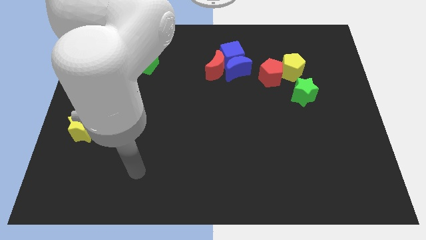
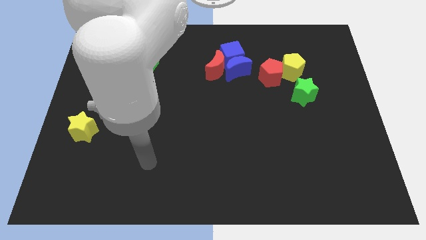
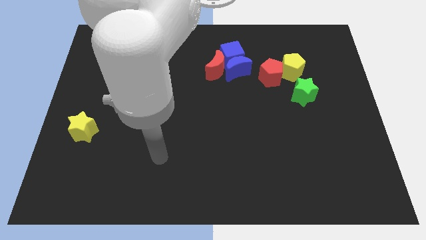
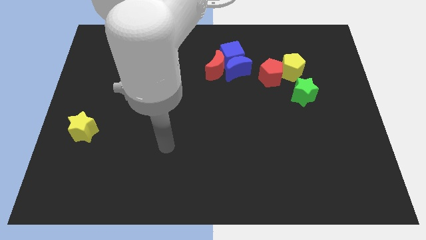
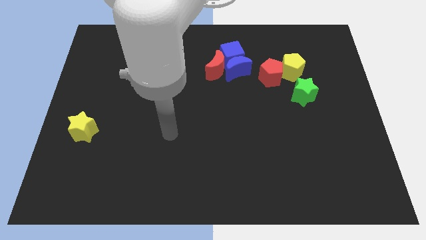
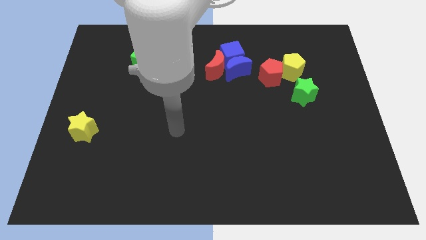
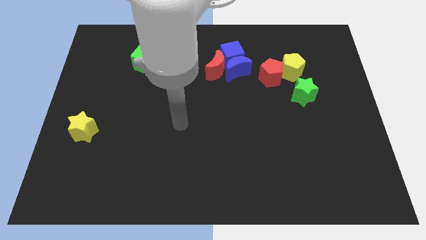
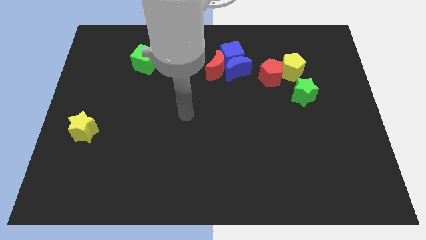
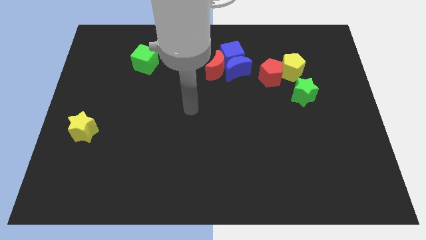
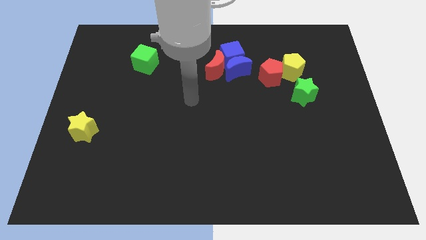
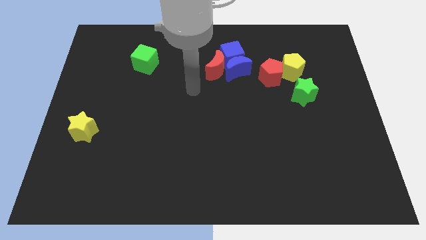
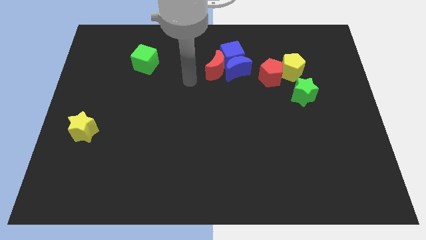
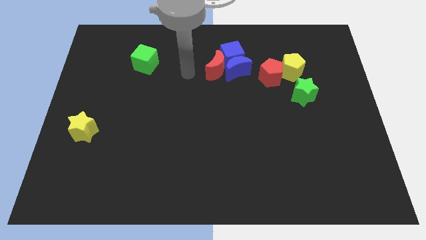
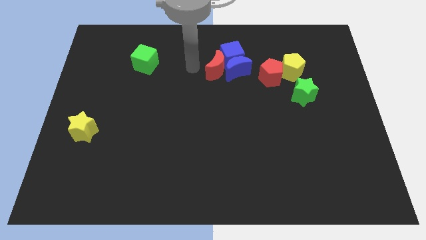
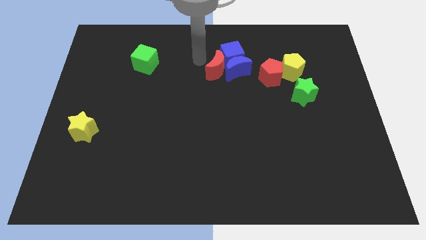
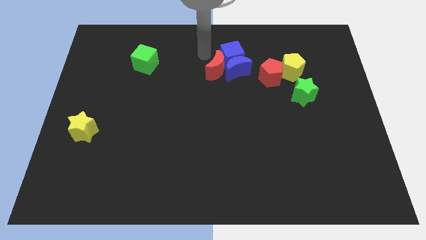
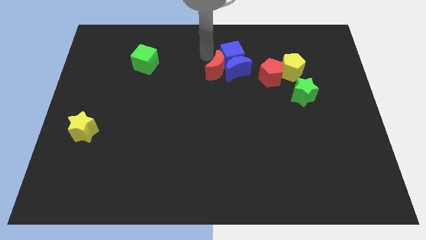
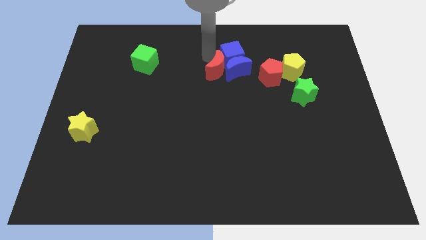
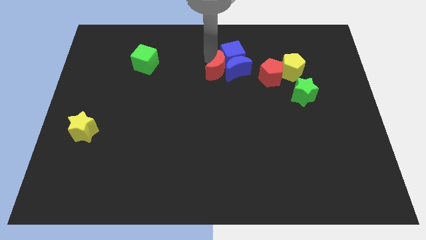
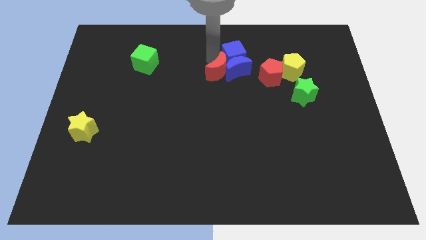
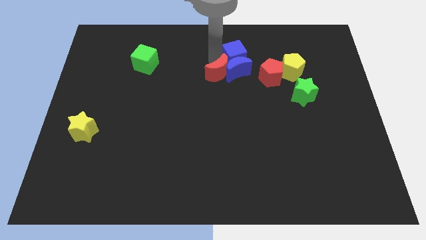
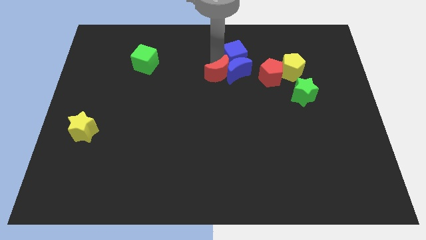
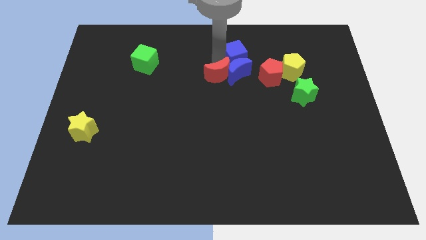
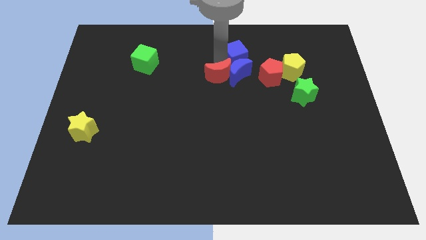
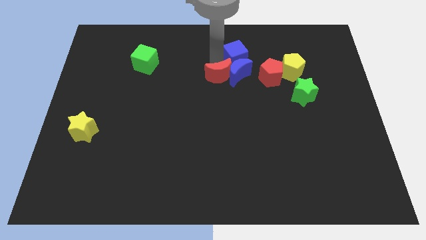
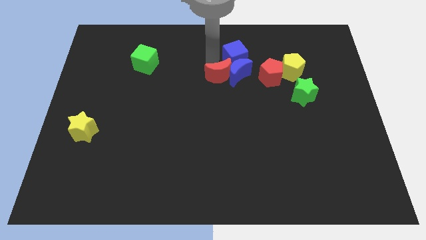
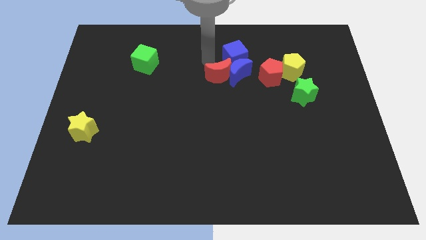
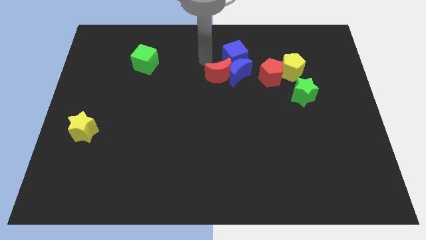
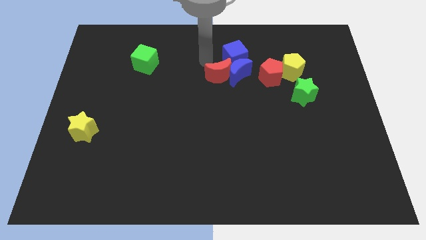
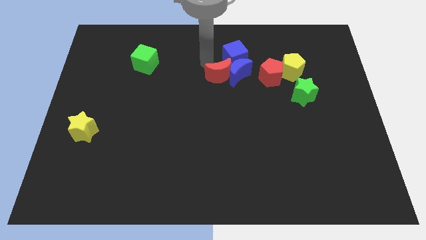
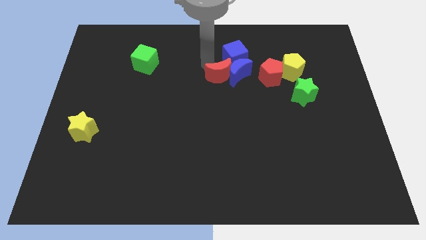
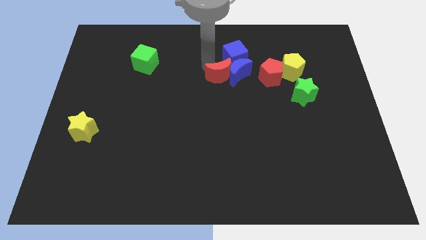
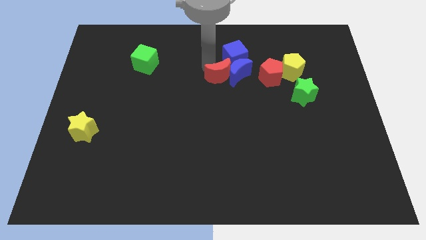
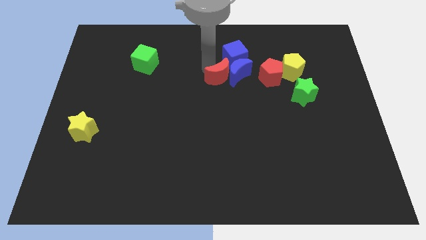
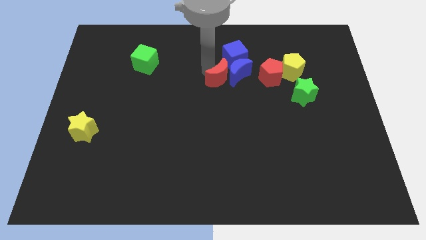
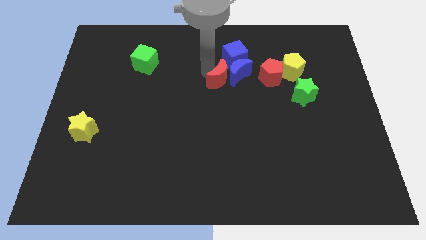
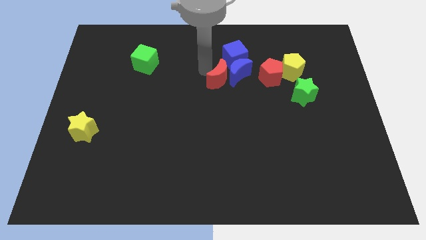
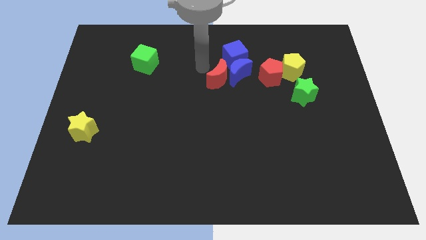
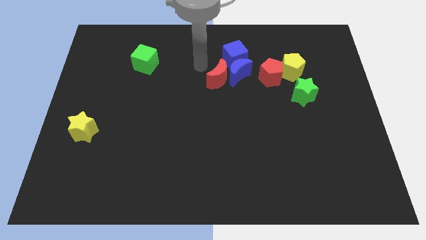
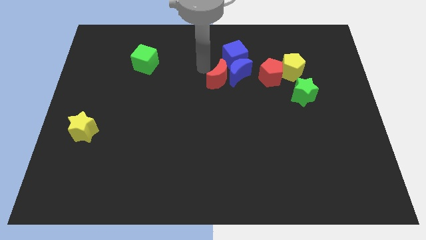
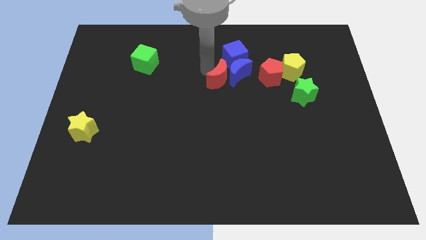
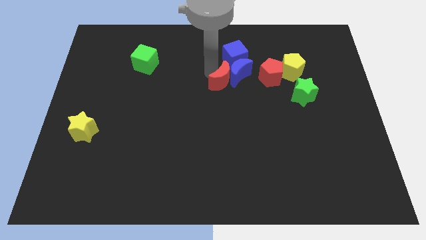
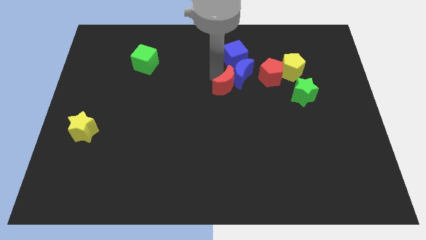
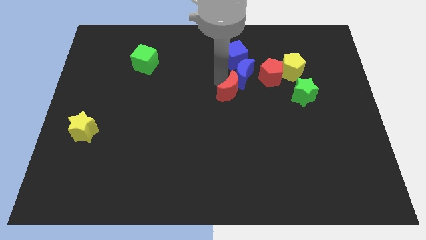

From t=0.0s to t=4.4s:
push the red moon a little downwards and right

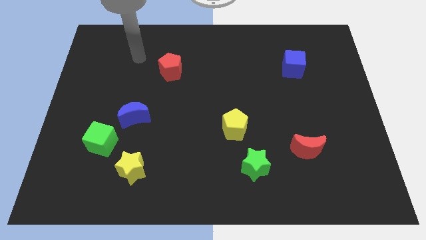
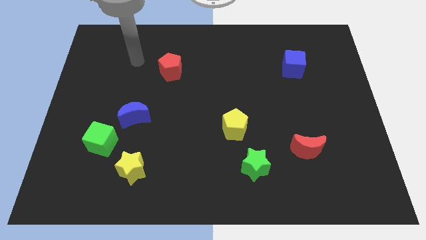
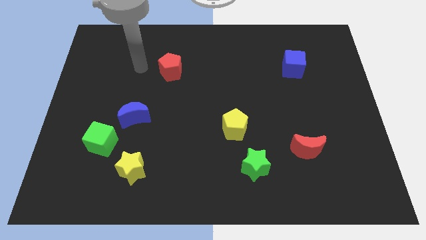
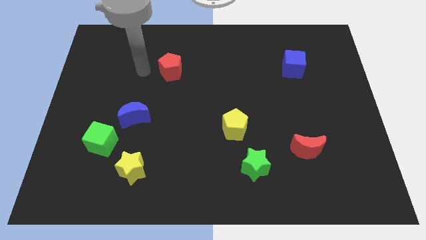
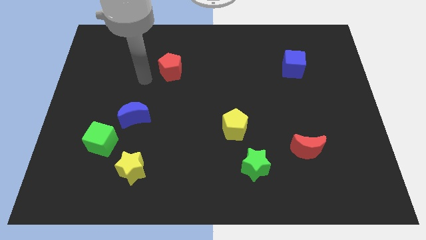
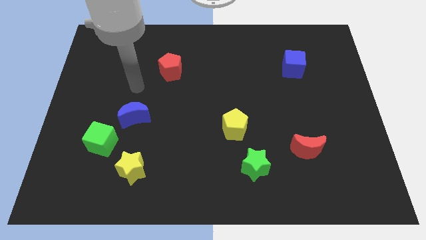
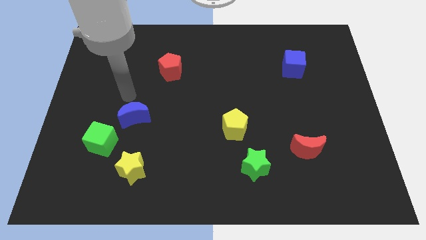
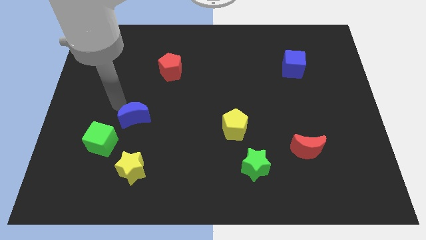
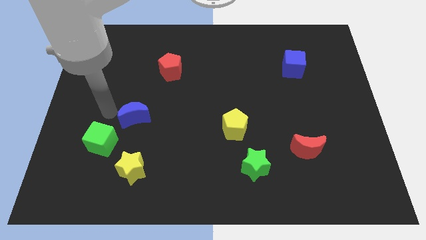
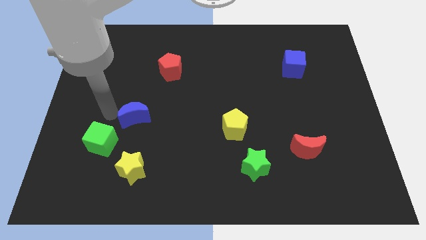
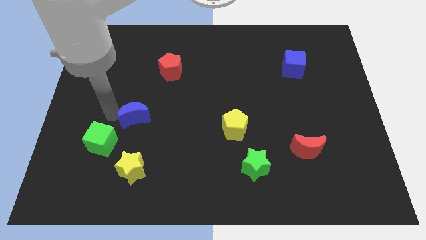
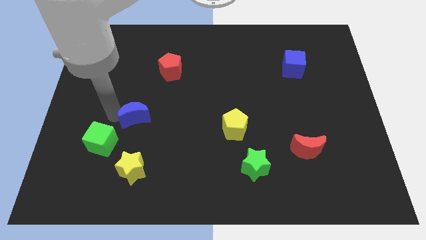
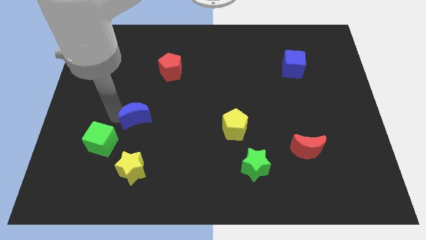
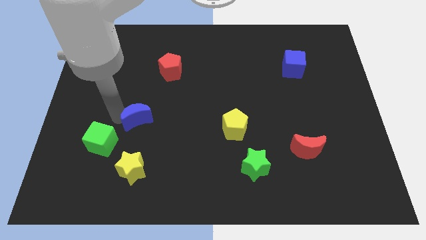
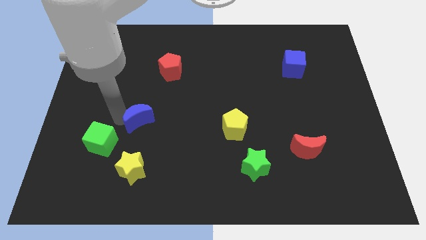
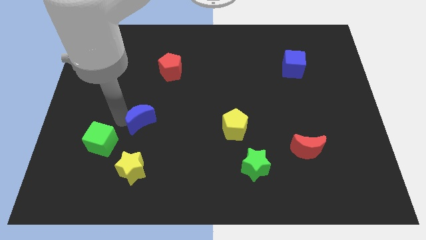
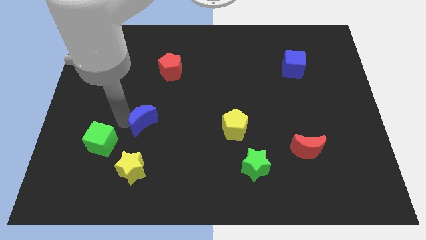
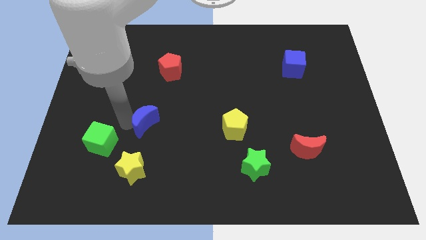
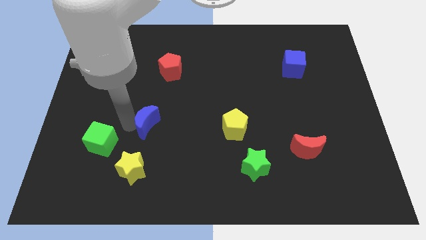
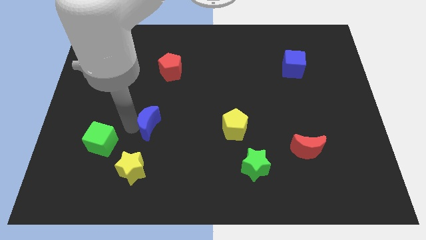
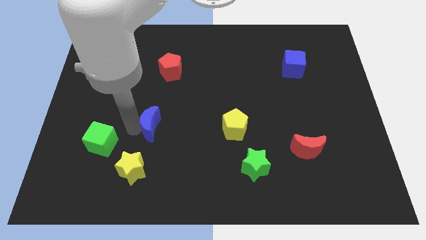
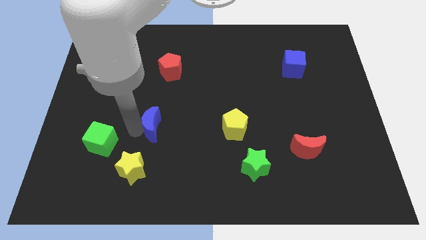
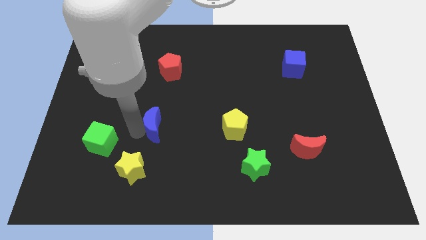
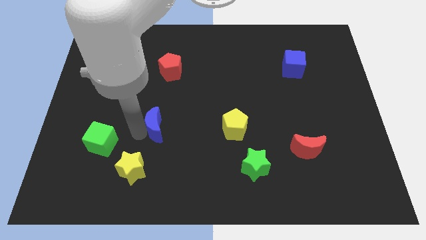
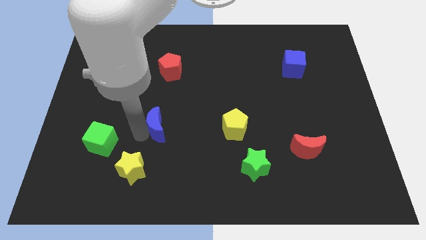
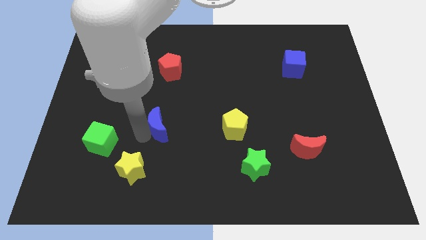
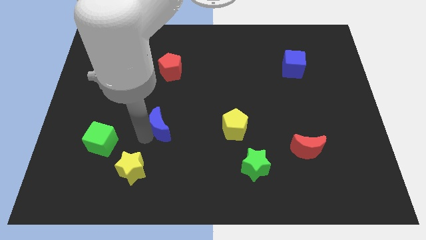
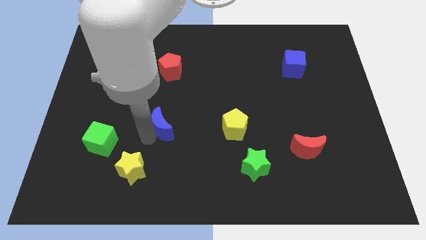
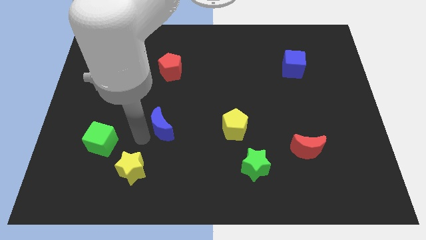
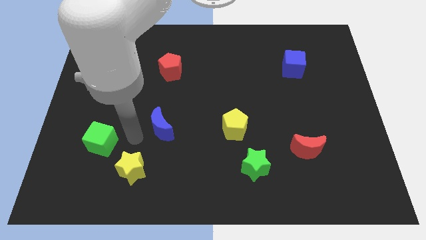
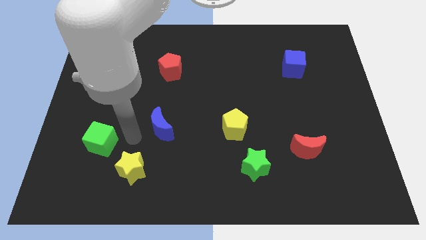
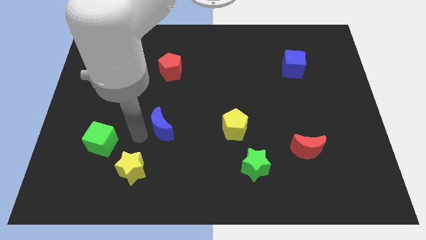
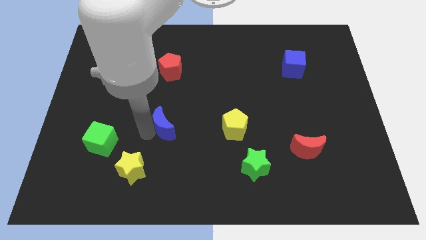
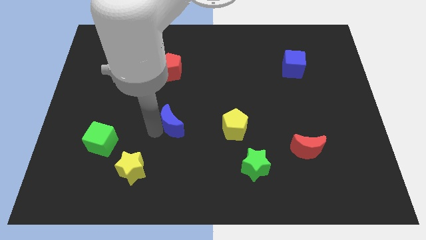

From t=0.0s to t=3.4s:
slide the blue moon right somewhat

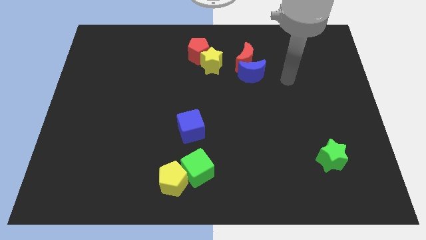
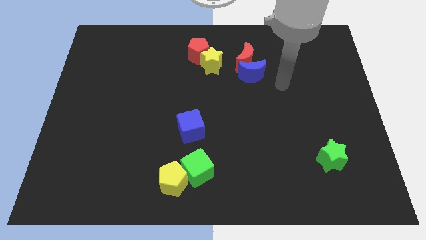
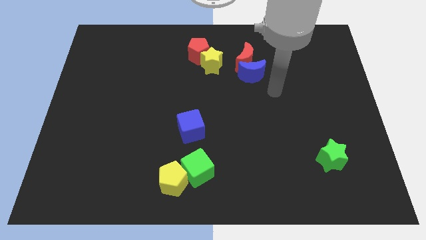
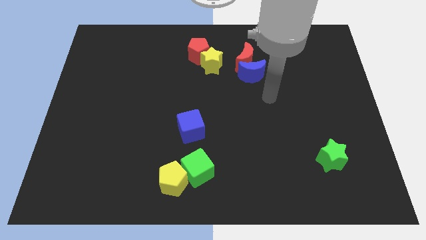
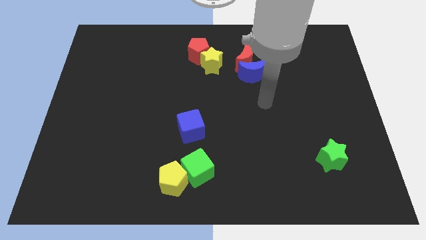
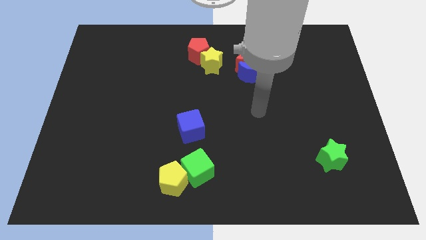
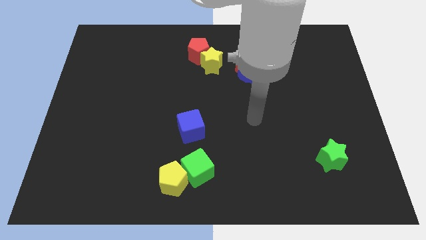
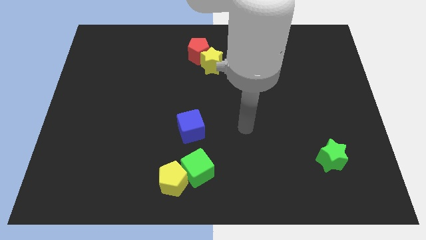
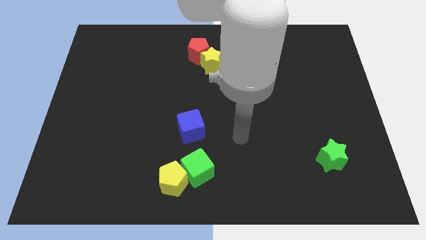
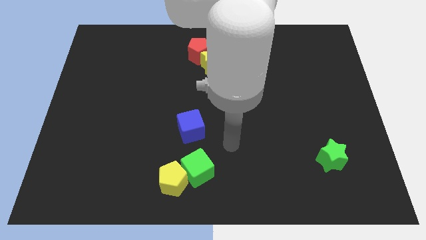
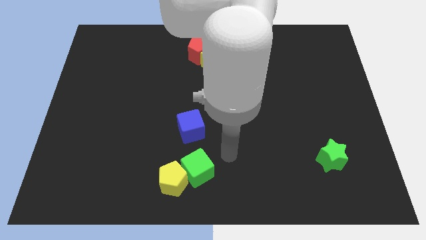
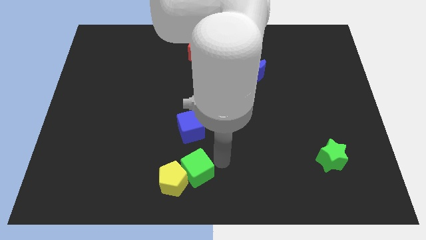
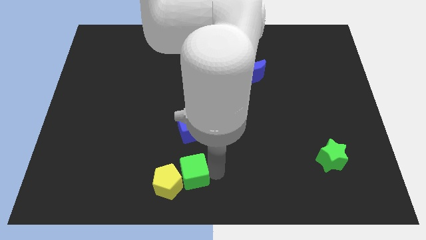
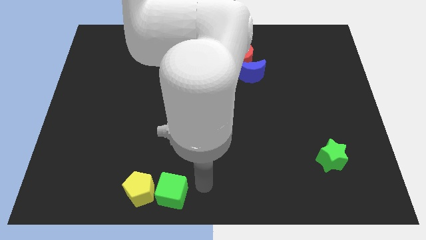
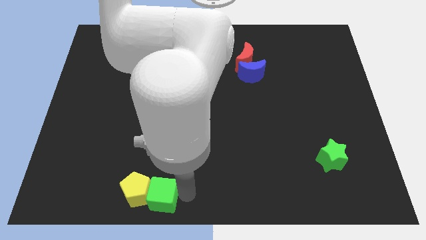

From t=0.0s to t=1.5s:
push the yellow pentagon to the left slightly
